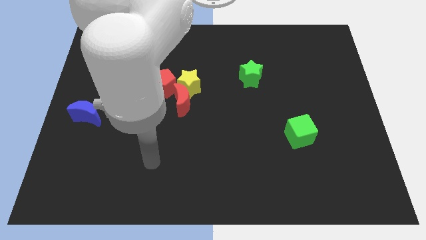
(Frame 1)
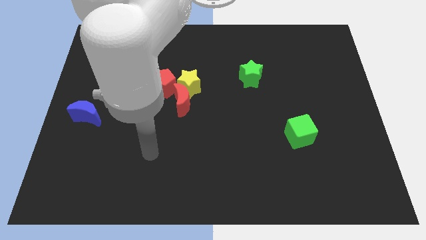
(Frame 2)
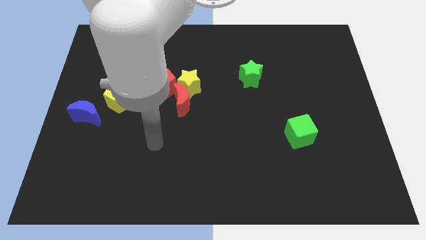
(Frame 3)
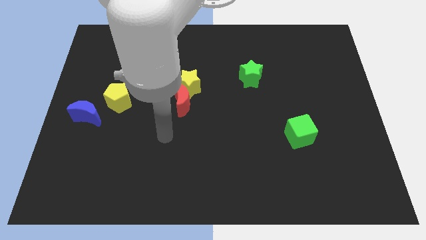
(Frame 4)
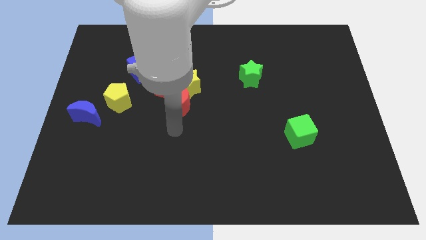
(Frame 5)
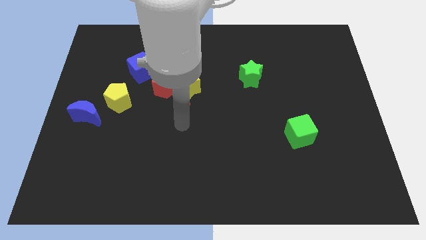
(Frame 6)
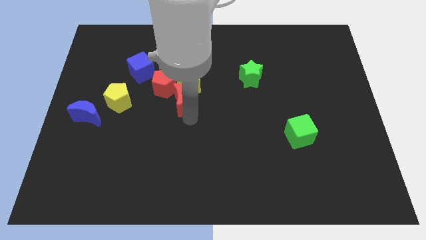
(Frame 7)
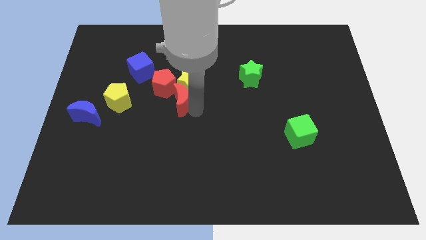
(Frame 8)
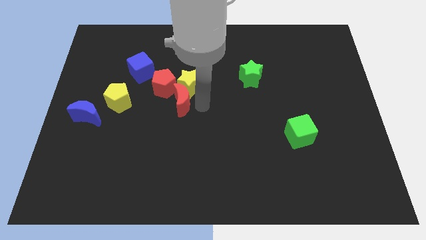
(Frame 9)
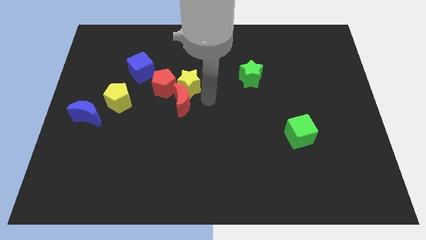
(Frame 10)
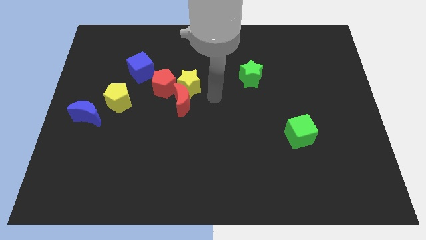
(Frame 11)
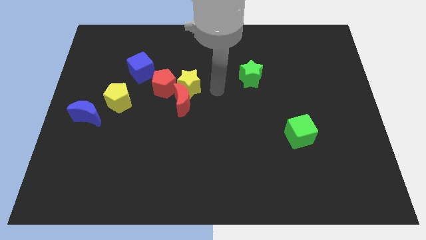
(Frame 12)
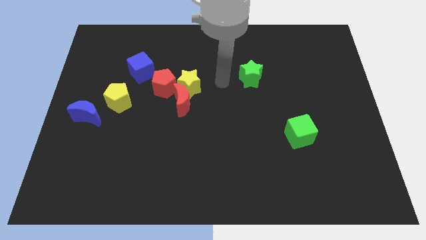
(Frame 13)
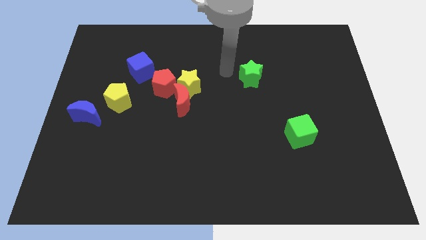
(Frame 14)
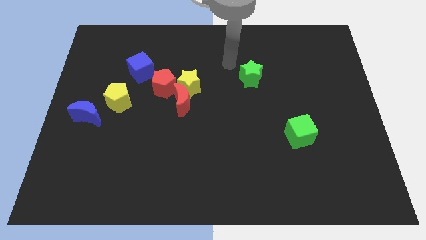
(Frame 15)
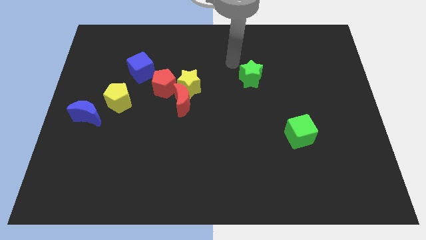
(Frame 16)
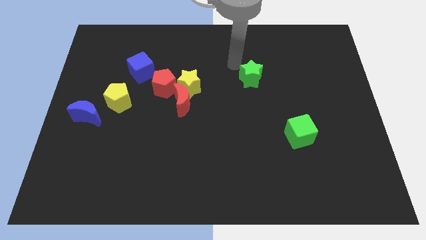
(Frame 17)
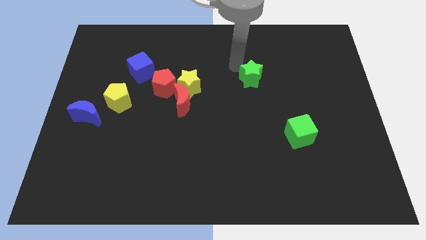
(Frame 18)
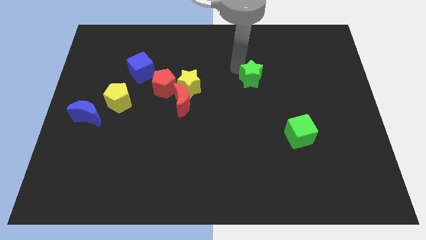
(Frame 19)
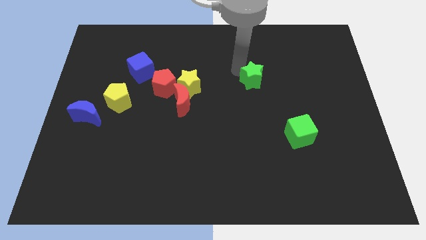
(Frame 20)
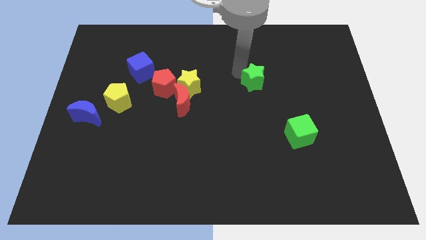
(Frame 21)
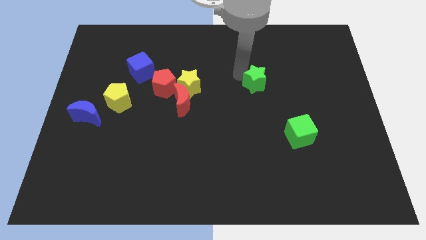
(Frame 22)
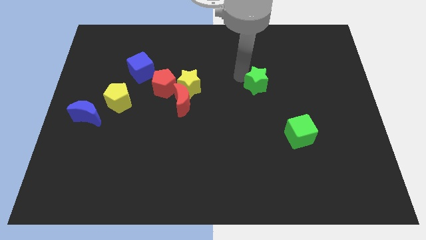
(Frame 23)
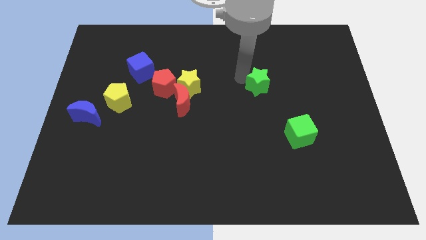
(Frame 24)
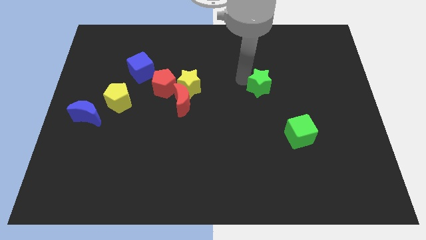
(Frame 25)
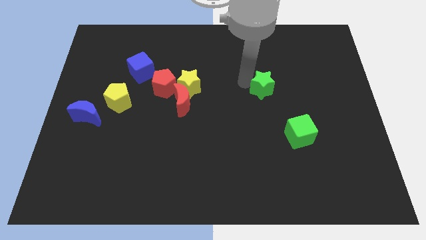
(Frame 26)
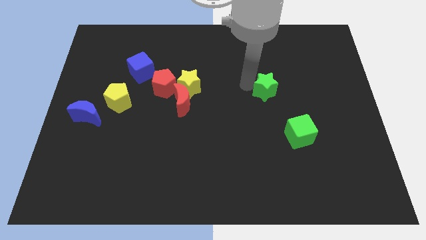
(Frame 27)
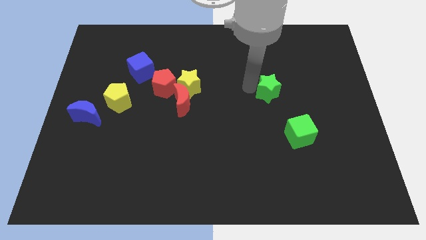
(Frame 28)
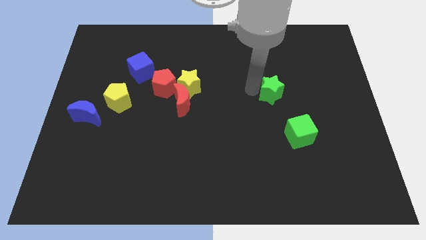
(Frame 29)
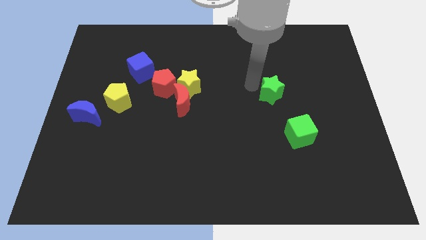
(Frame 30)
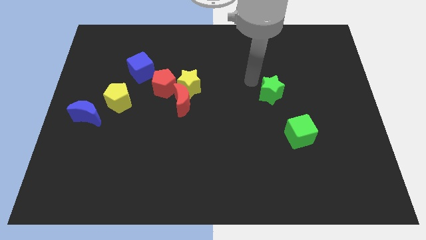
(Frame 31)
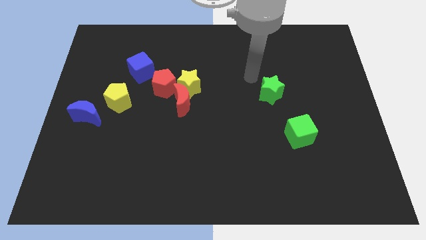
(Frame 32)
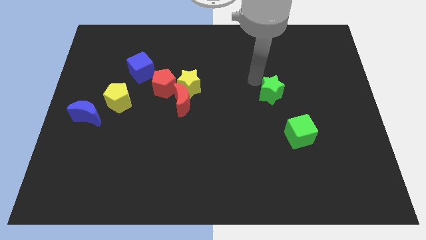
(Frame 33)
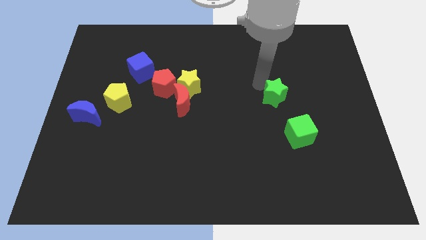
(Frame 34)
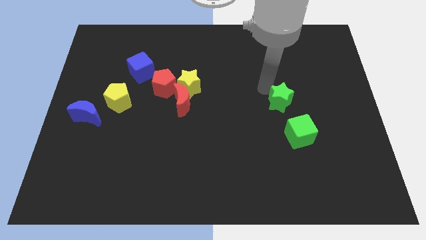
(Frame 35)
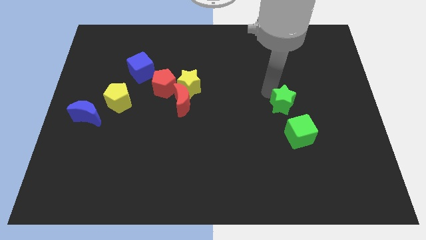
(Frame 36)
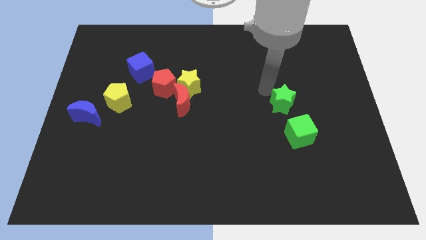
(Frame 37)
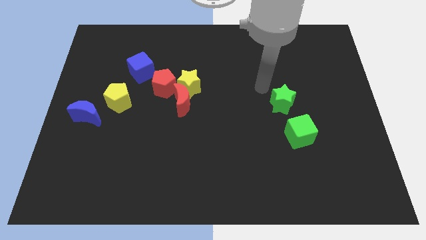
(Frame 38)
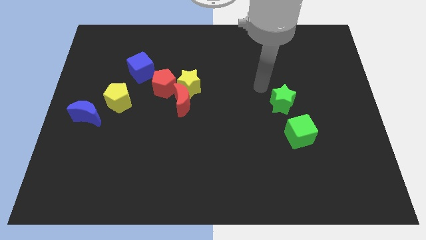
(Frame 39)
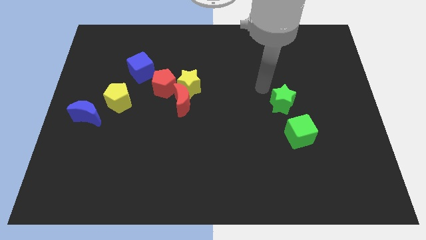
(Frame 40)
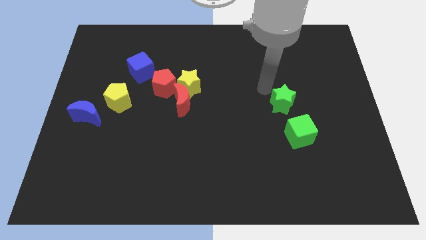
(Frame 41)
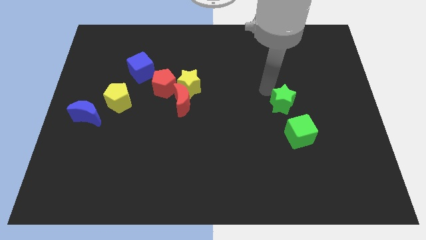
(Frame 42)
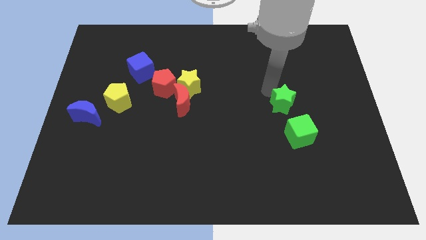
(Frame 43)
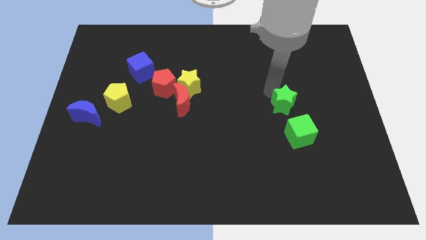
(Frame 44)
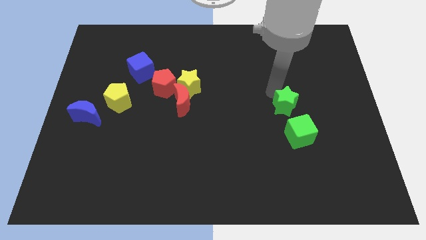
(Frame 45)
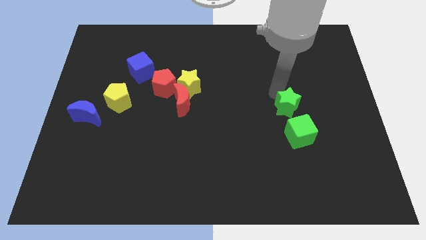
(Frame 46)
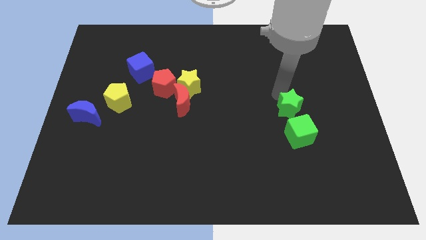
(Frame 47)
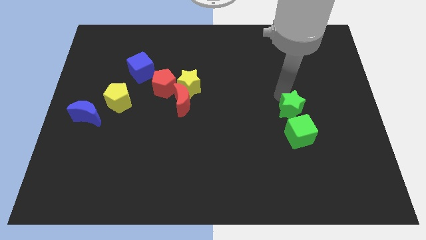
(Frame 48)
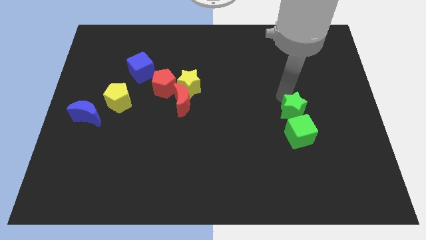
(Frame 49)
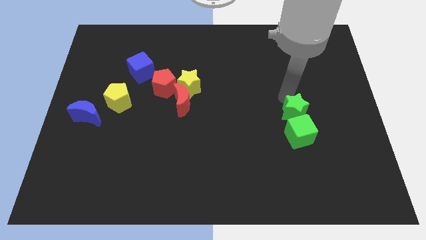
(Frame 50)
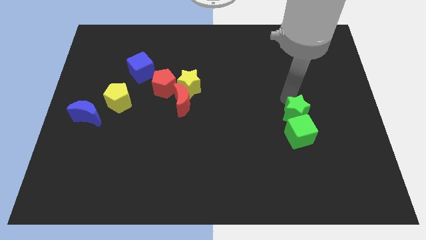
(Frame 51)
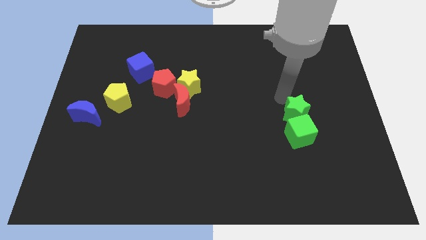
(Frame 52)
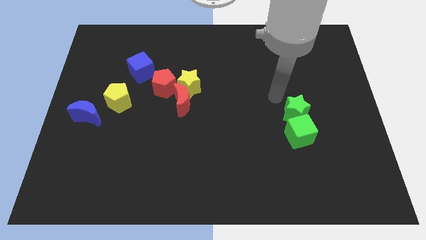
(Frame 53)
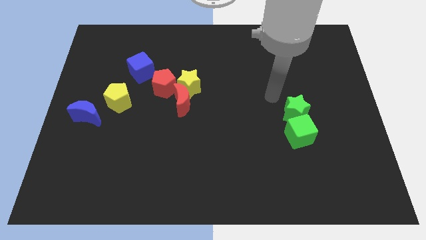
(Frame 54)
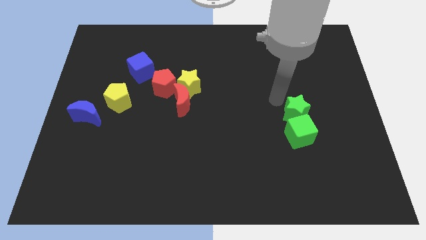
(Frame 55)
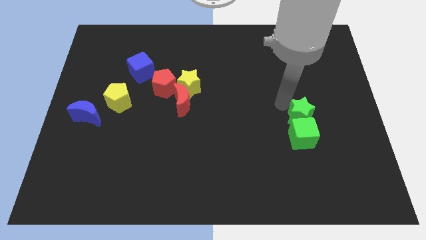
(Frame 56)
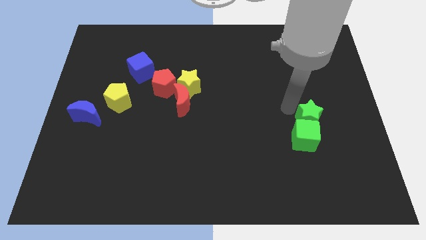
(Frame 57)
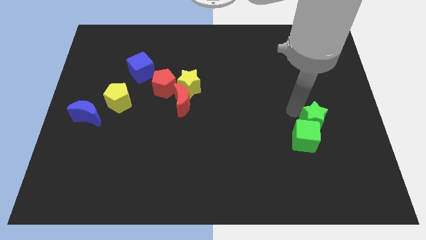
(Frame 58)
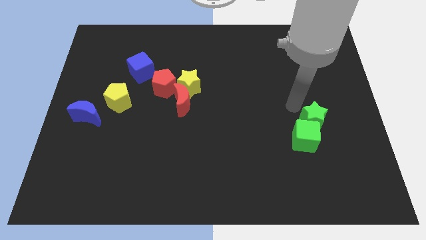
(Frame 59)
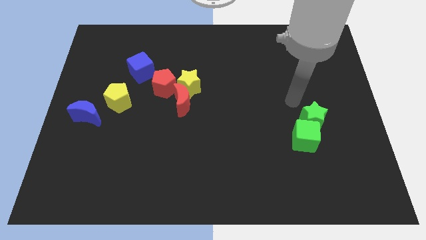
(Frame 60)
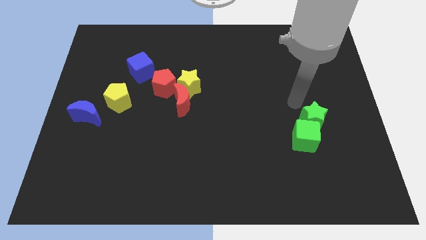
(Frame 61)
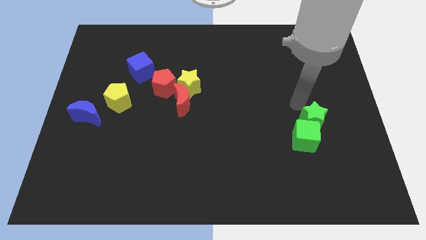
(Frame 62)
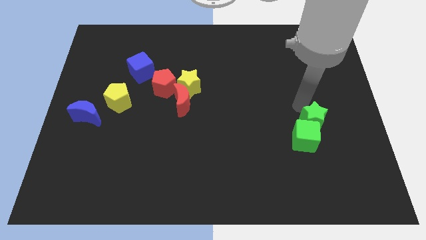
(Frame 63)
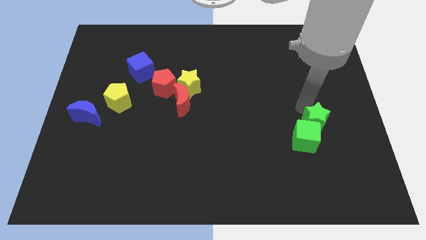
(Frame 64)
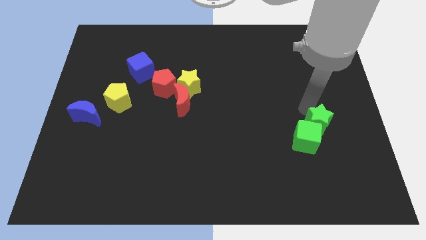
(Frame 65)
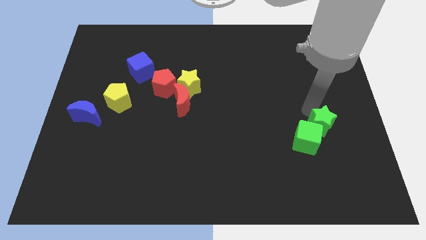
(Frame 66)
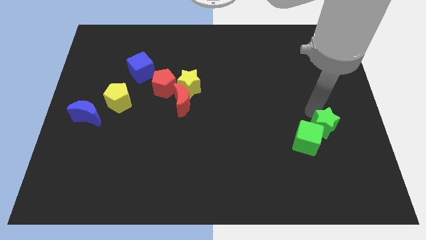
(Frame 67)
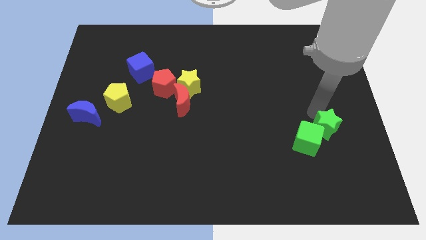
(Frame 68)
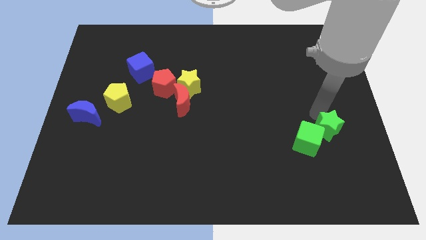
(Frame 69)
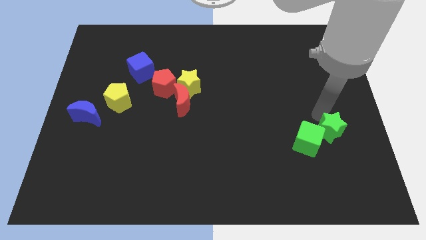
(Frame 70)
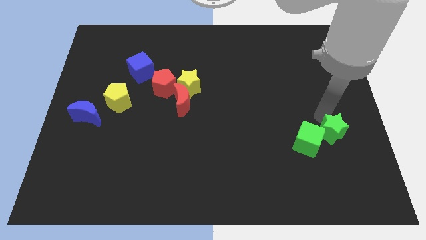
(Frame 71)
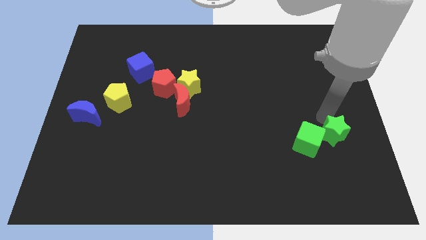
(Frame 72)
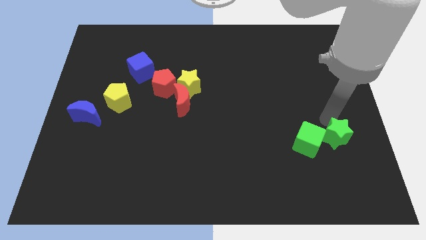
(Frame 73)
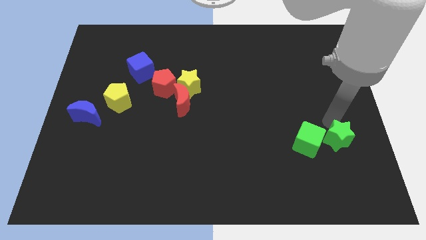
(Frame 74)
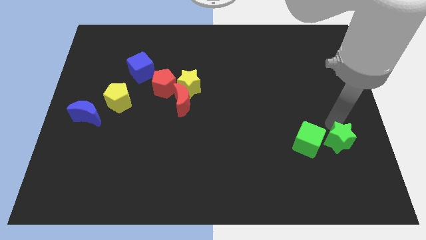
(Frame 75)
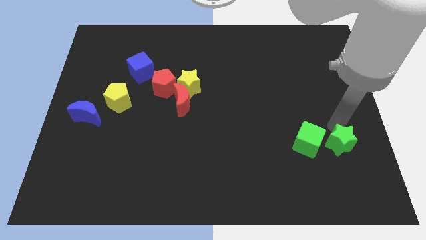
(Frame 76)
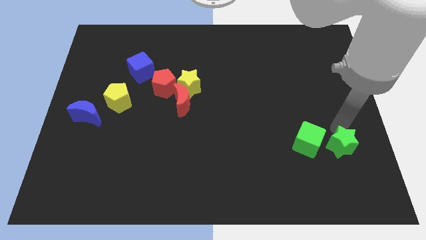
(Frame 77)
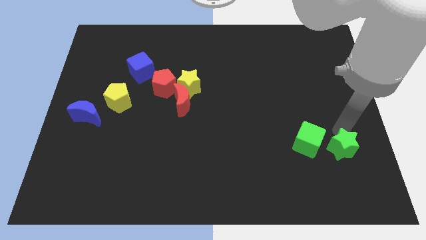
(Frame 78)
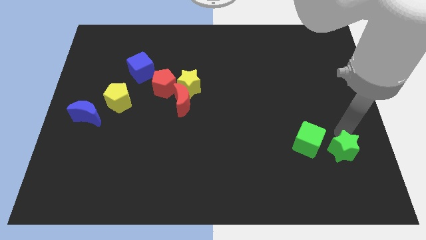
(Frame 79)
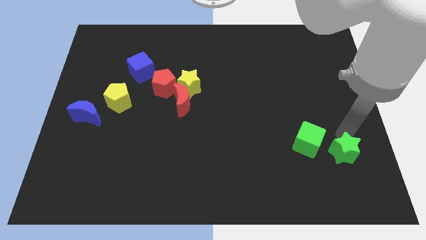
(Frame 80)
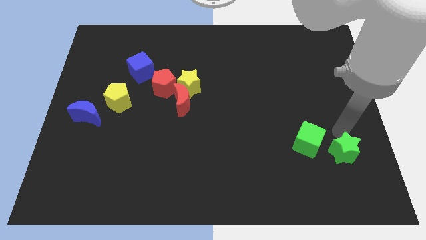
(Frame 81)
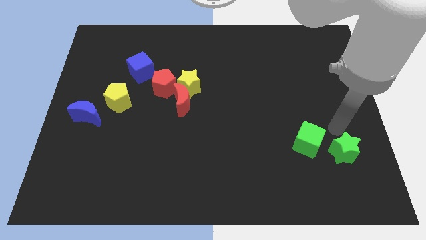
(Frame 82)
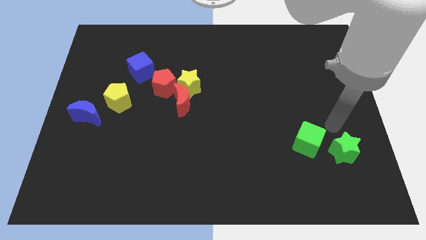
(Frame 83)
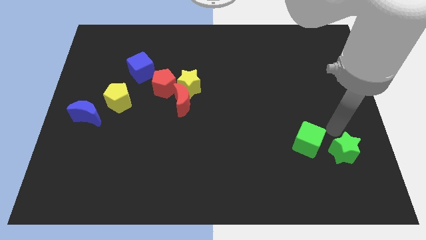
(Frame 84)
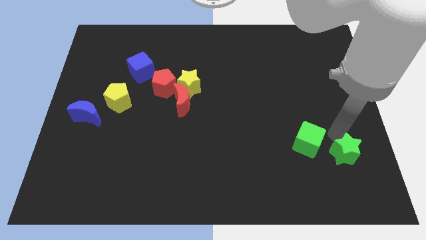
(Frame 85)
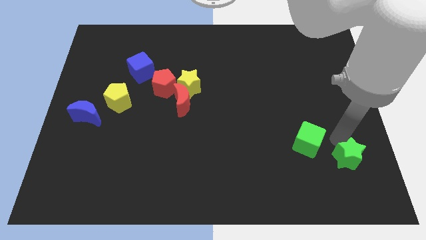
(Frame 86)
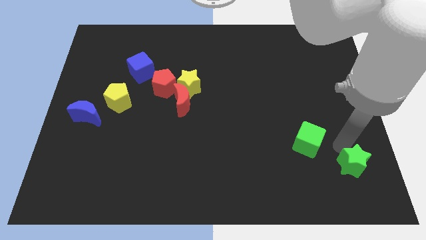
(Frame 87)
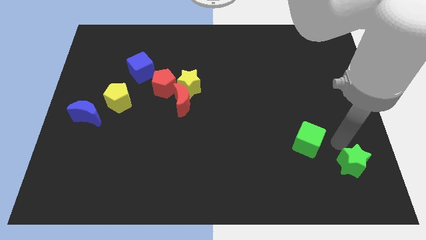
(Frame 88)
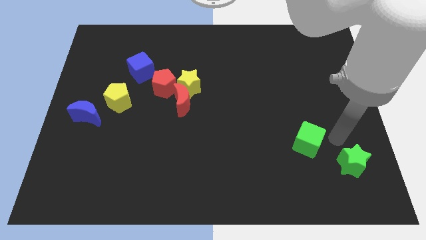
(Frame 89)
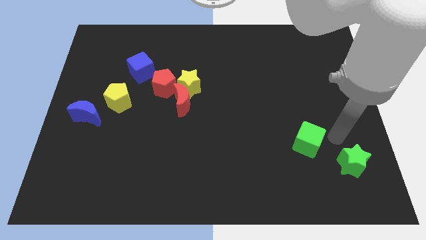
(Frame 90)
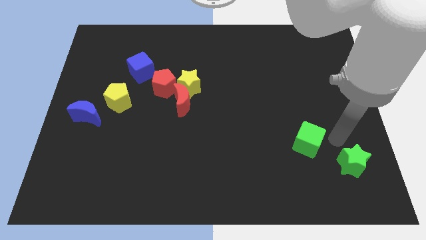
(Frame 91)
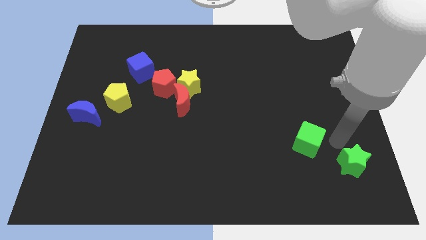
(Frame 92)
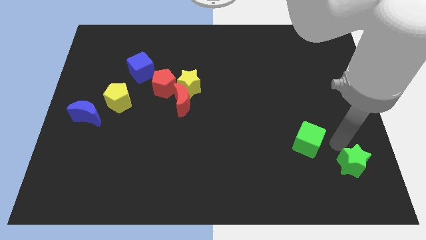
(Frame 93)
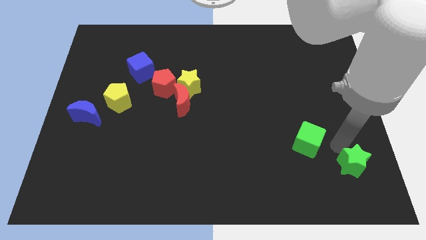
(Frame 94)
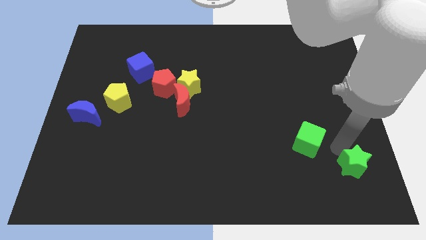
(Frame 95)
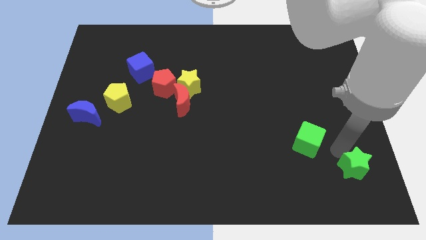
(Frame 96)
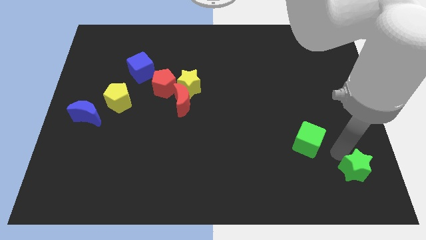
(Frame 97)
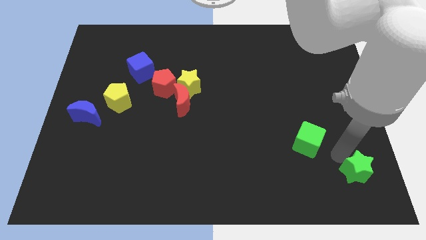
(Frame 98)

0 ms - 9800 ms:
slide the green star to the bottom right corner
